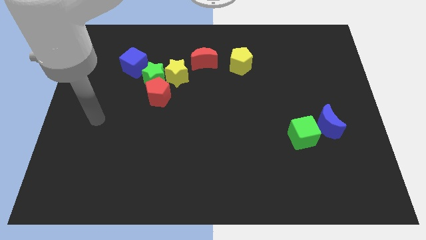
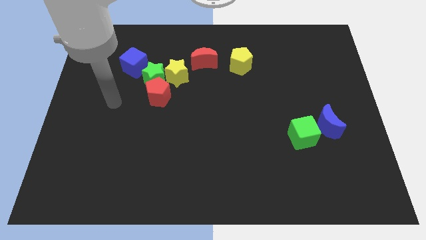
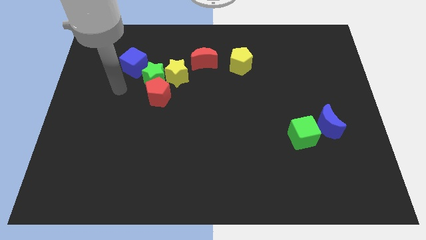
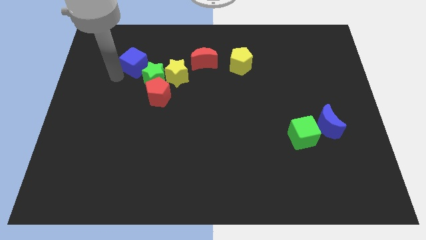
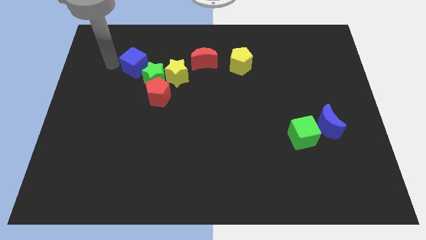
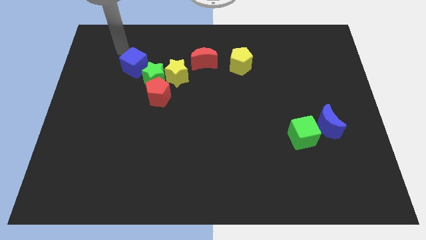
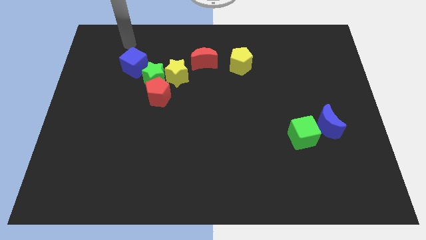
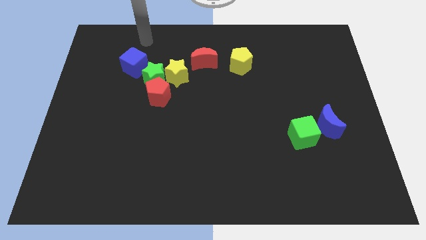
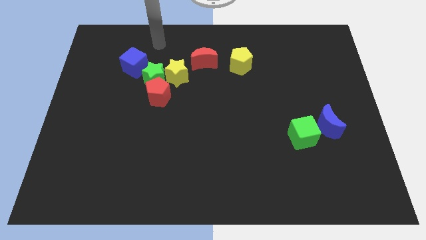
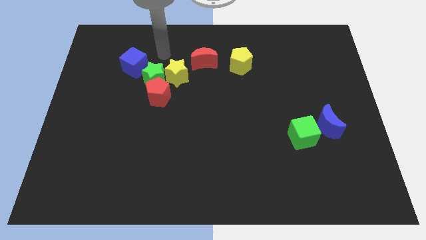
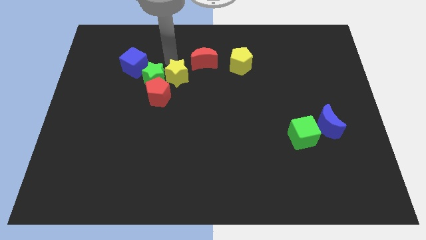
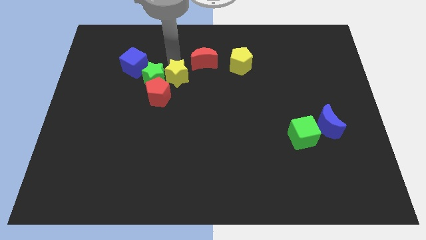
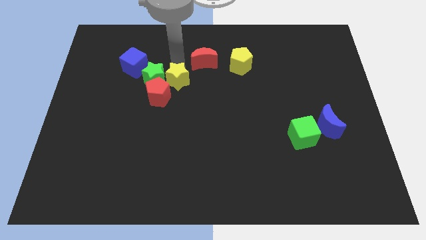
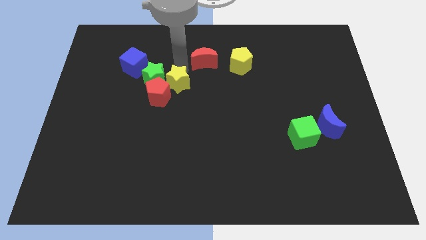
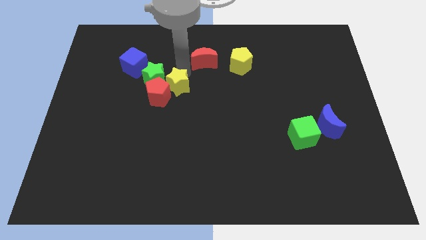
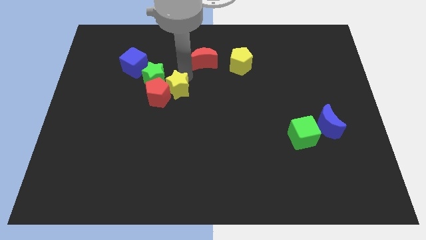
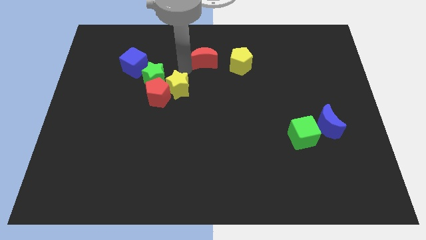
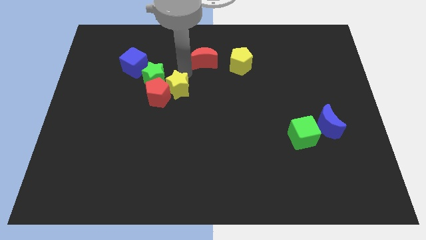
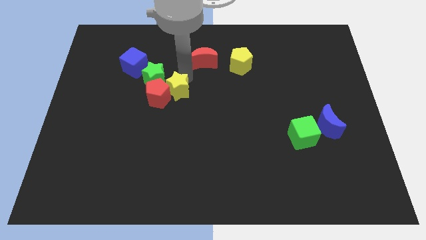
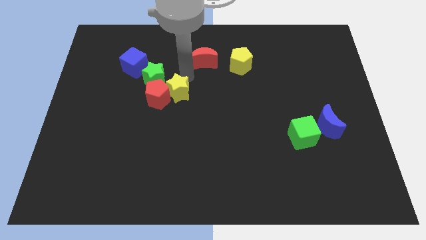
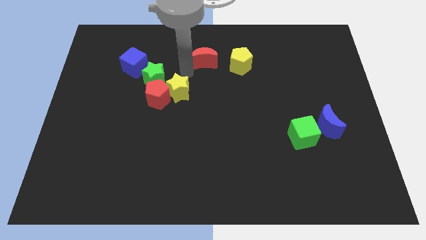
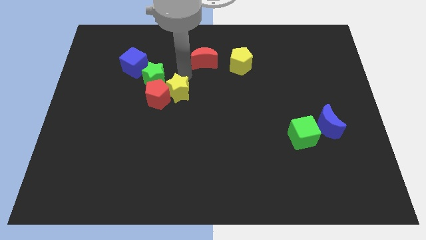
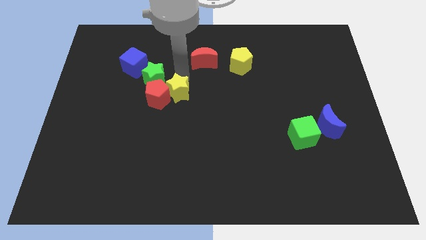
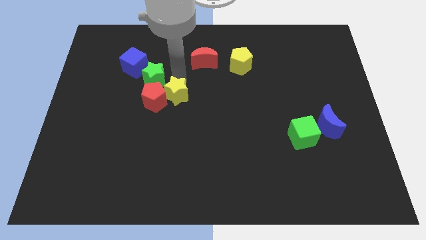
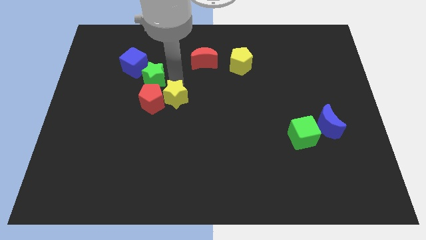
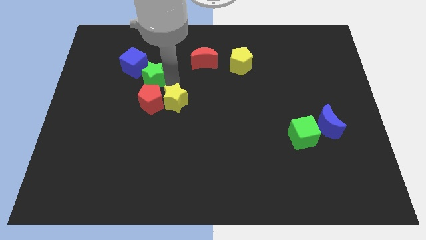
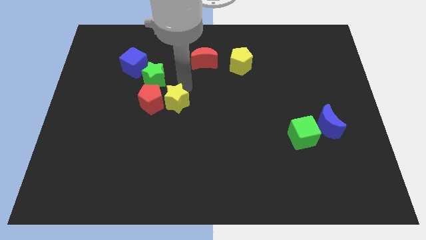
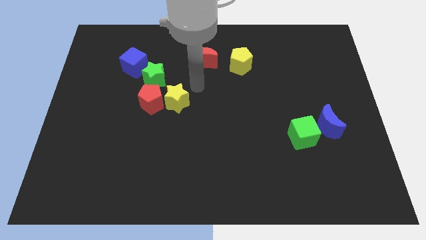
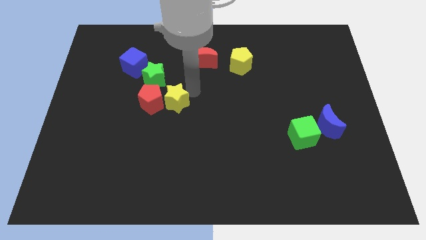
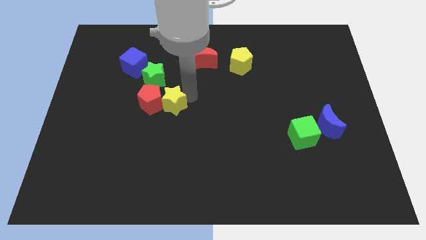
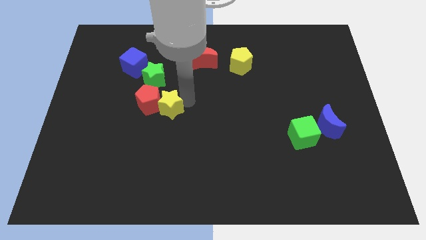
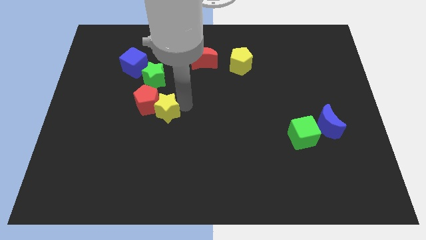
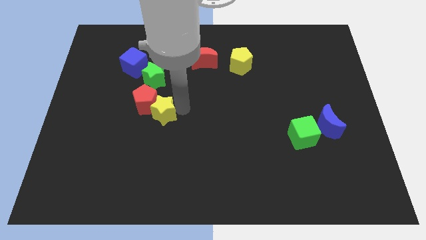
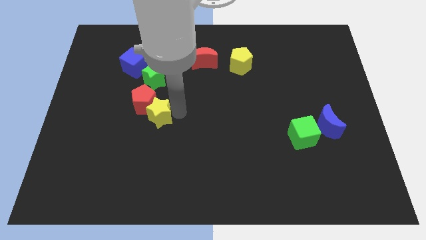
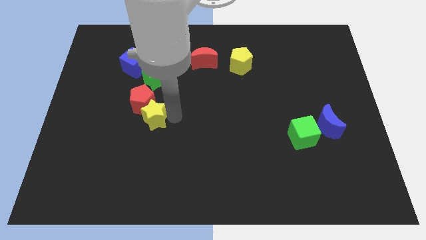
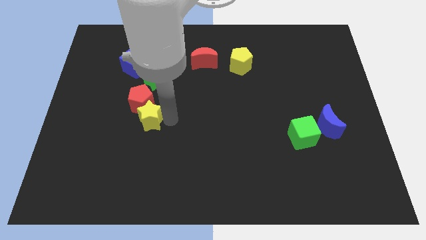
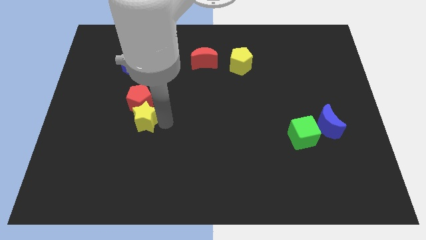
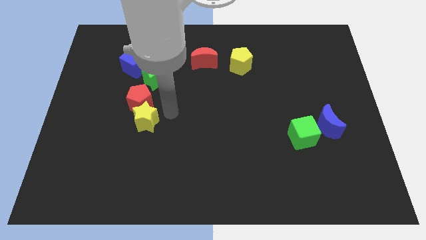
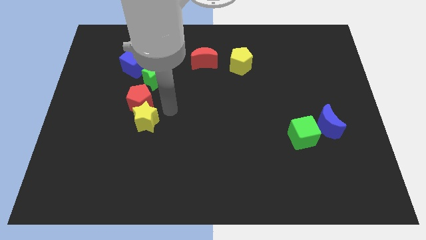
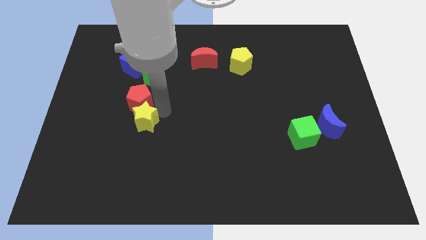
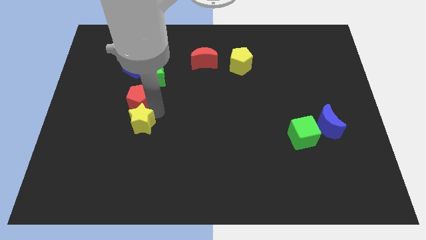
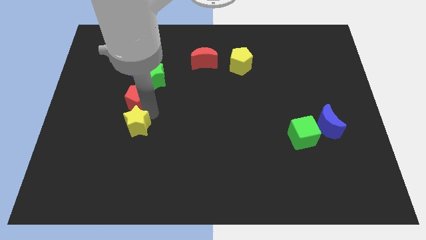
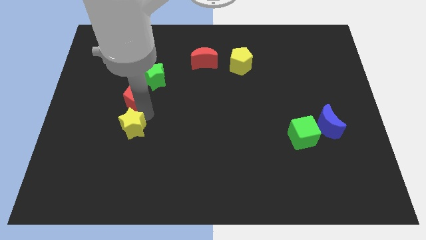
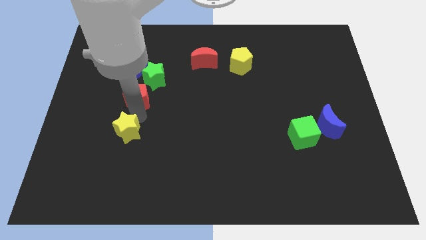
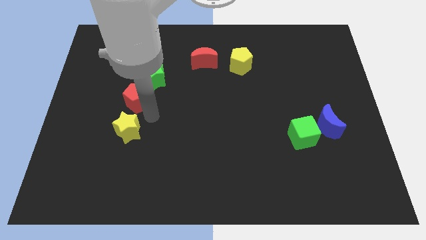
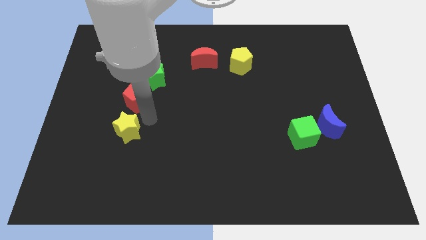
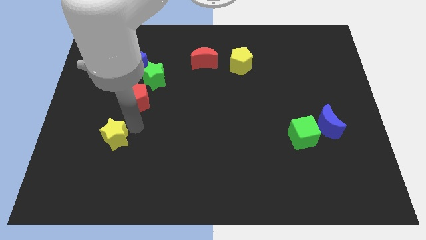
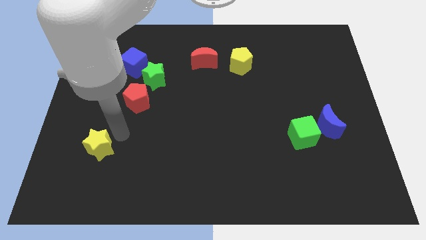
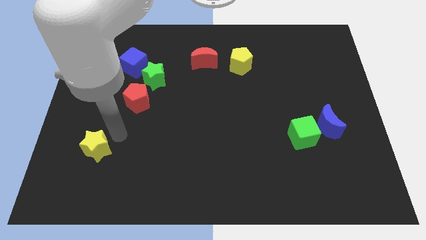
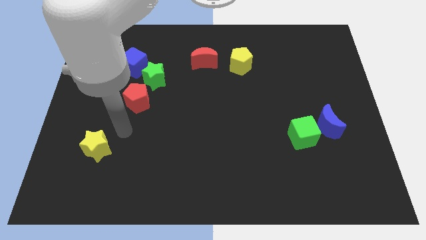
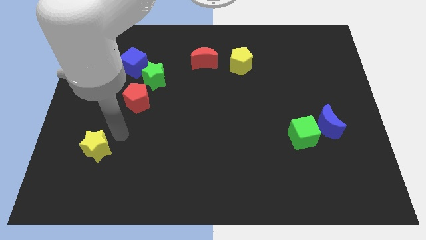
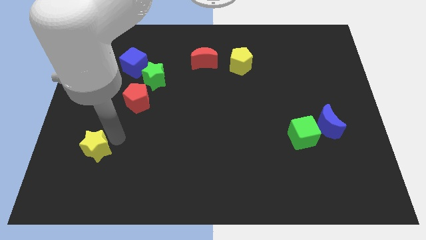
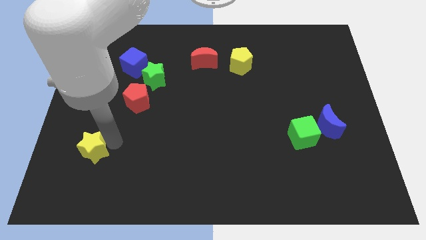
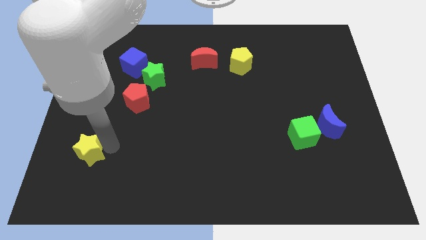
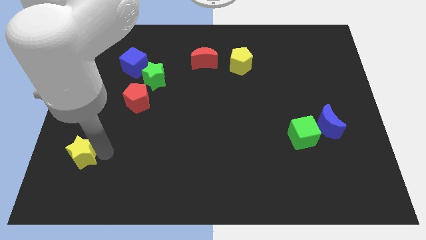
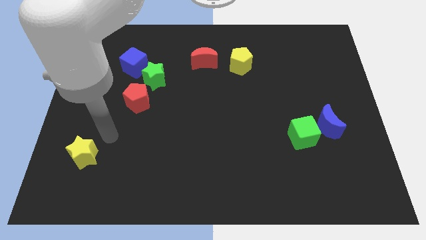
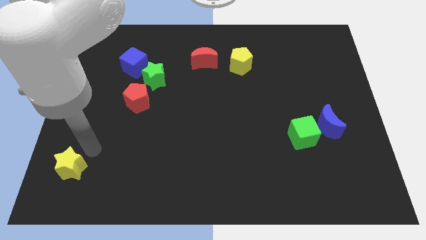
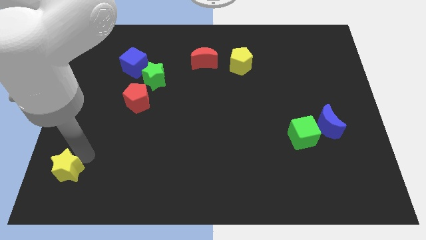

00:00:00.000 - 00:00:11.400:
move the yellow star to the bottom left corner

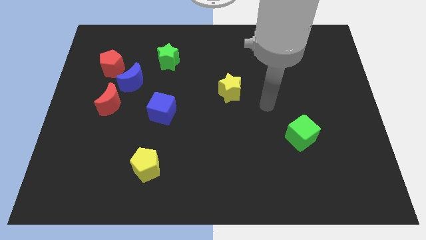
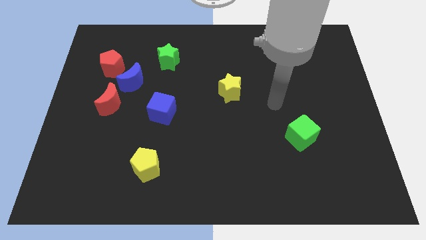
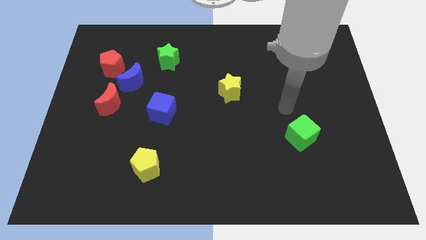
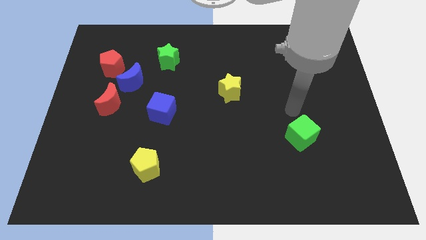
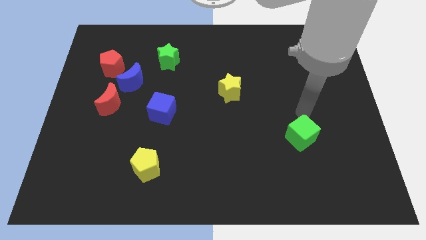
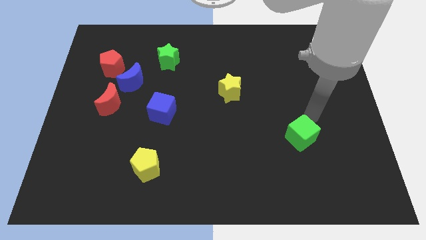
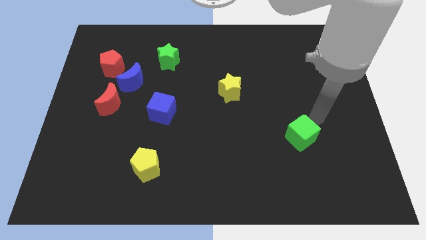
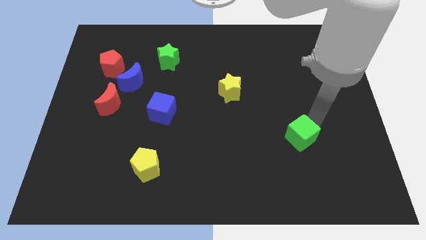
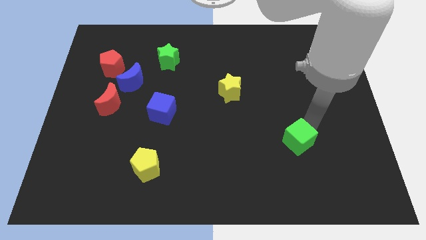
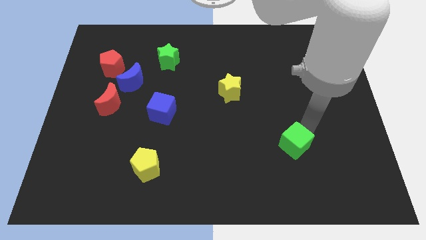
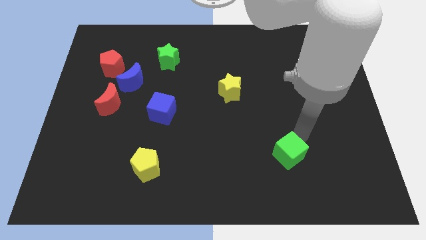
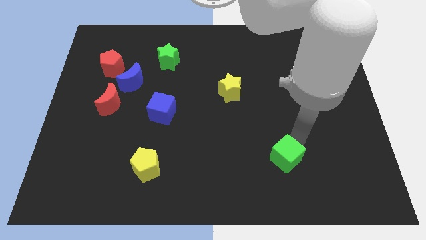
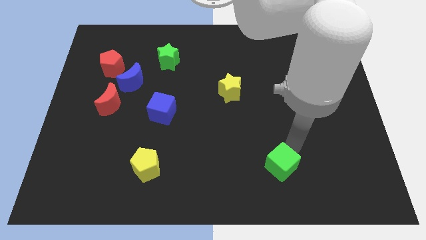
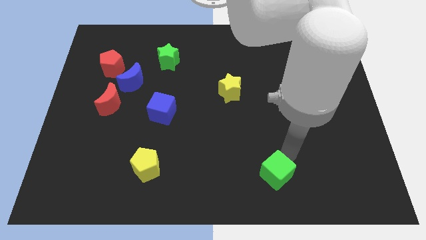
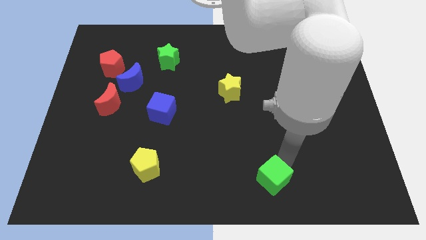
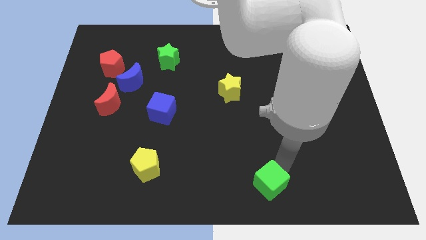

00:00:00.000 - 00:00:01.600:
move the green cube to the bottom
